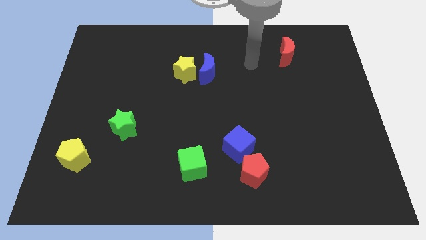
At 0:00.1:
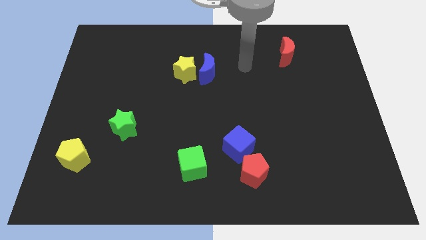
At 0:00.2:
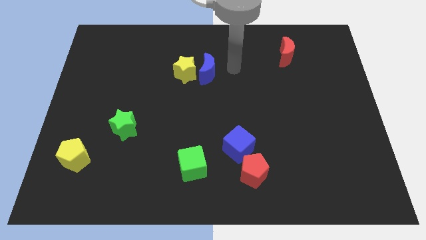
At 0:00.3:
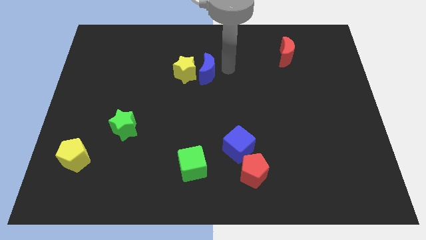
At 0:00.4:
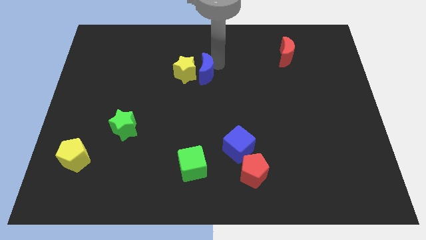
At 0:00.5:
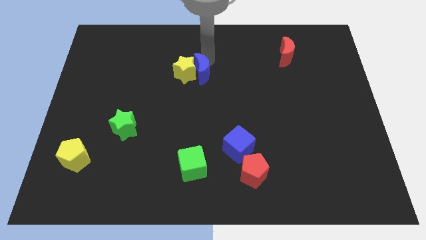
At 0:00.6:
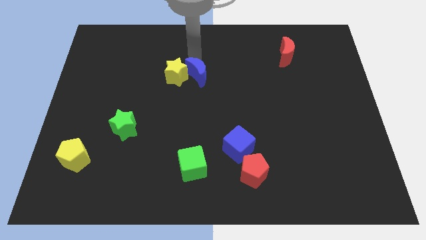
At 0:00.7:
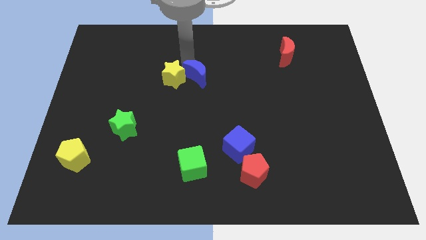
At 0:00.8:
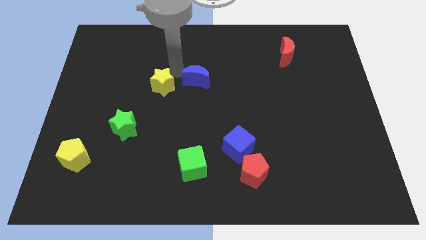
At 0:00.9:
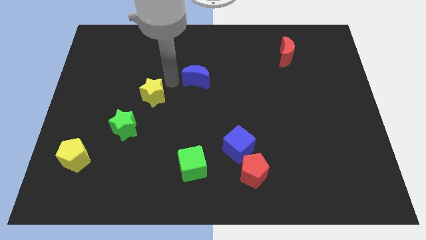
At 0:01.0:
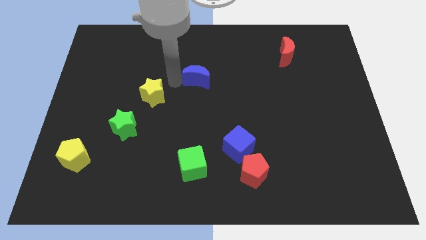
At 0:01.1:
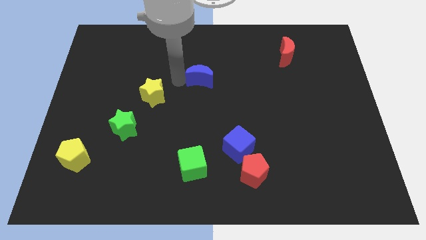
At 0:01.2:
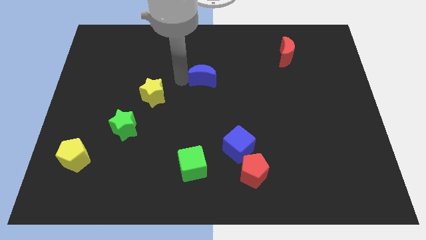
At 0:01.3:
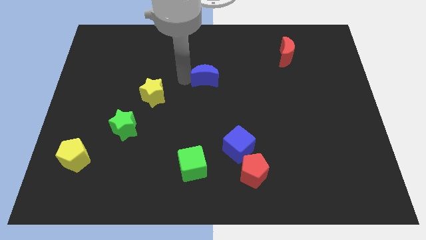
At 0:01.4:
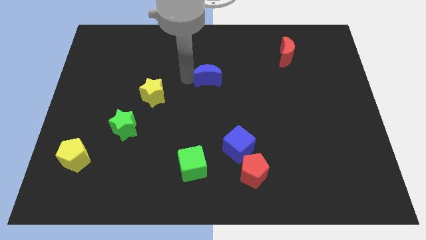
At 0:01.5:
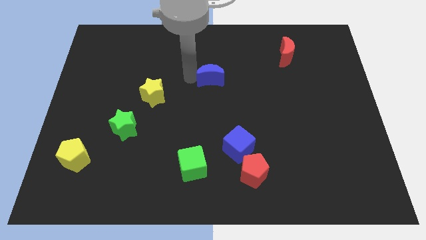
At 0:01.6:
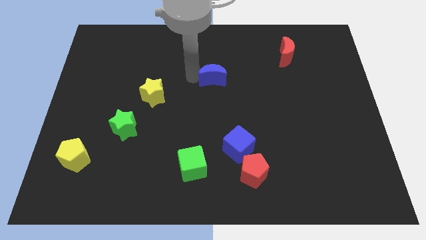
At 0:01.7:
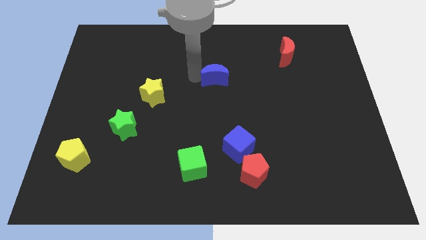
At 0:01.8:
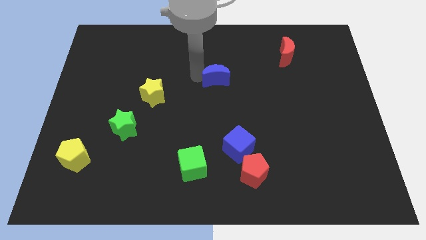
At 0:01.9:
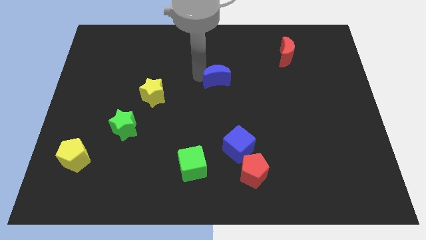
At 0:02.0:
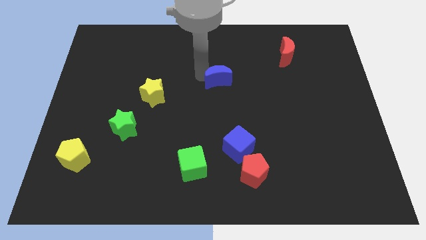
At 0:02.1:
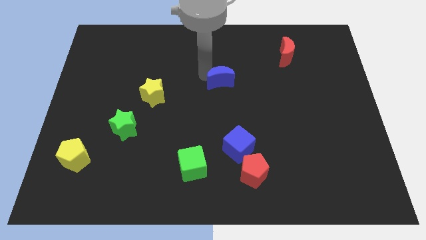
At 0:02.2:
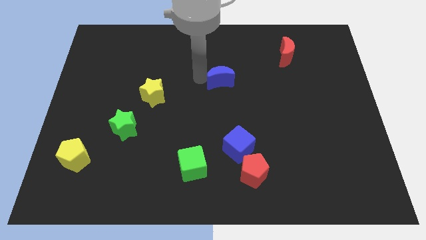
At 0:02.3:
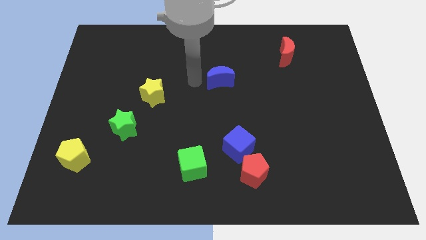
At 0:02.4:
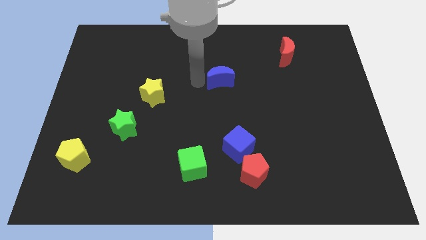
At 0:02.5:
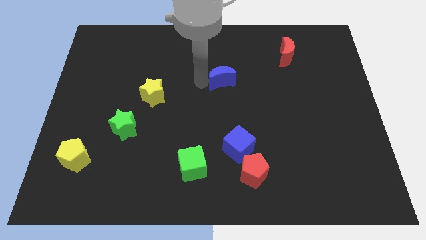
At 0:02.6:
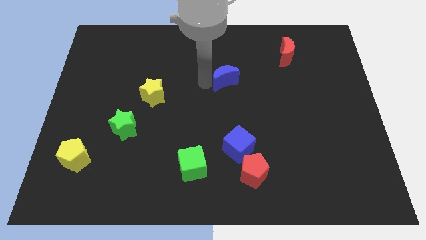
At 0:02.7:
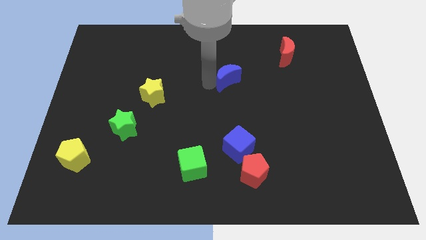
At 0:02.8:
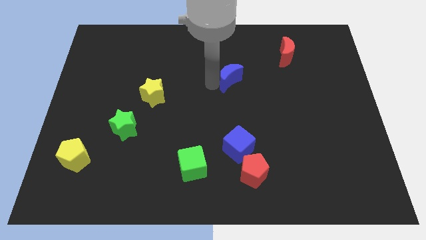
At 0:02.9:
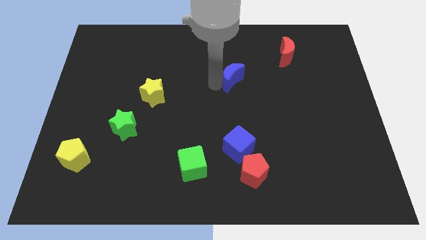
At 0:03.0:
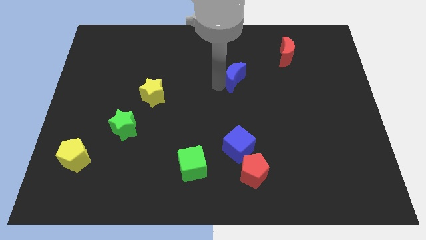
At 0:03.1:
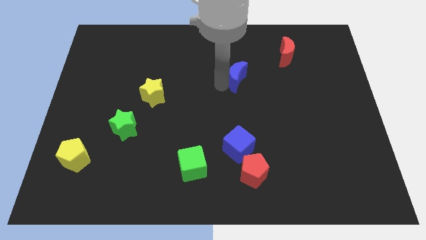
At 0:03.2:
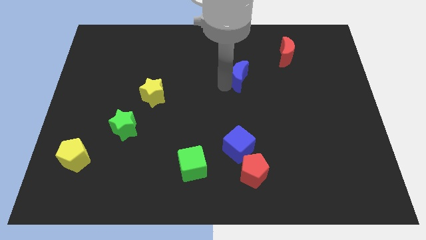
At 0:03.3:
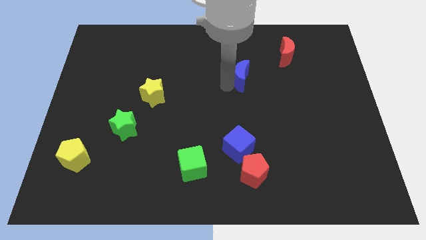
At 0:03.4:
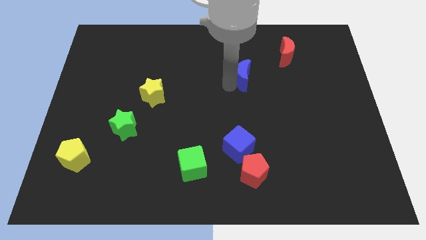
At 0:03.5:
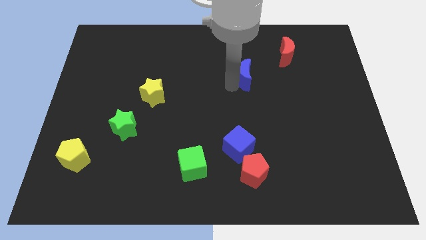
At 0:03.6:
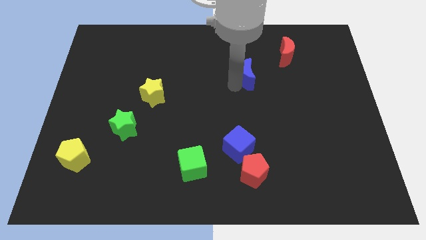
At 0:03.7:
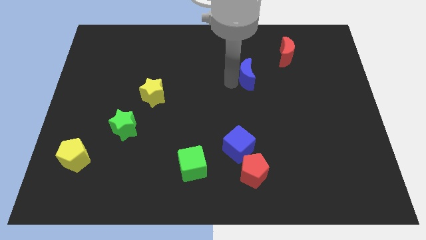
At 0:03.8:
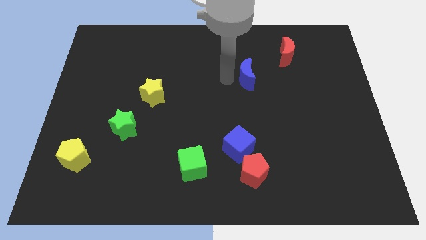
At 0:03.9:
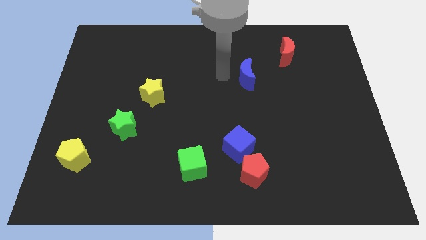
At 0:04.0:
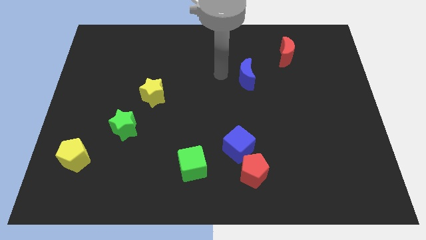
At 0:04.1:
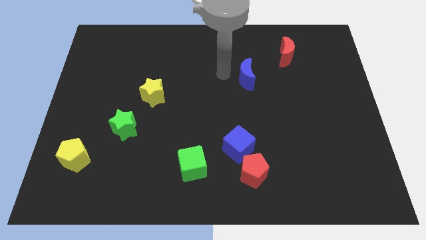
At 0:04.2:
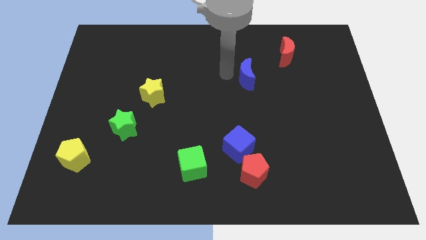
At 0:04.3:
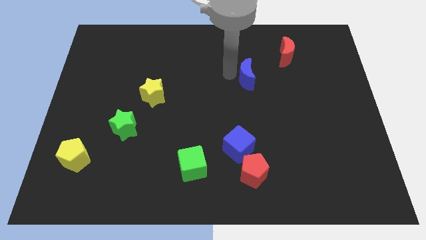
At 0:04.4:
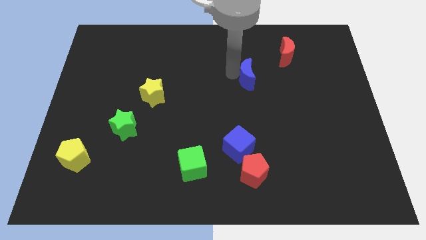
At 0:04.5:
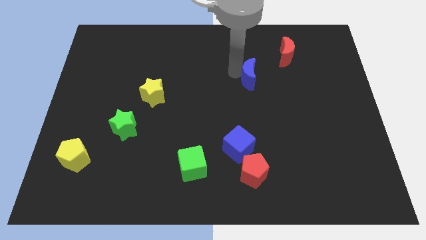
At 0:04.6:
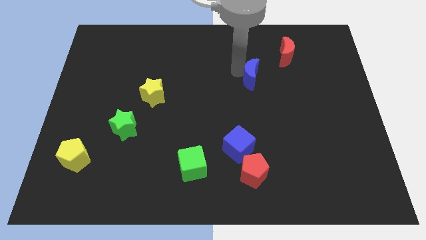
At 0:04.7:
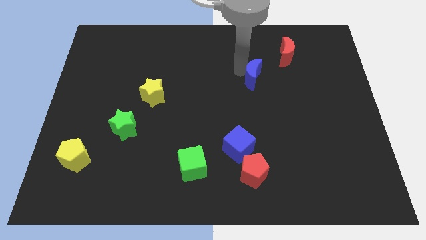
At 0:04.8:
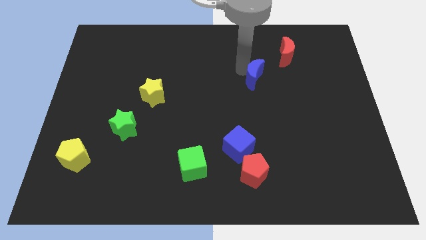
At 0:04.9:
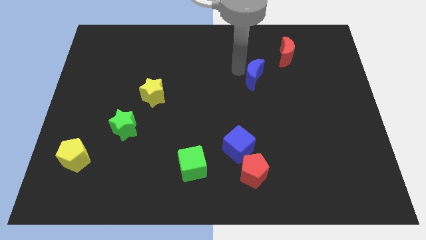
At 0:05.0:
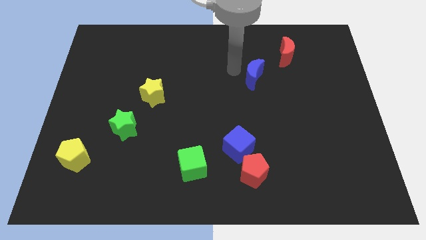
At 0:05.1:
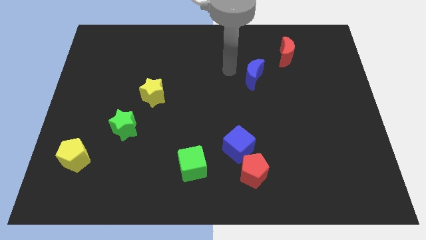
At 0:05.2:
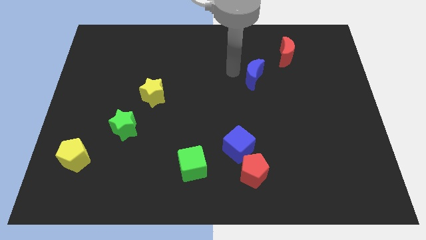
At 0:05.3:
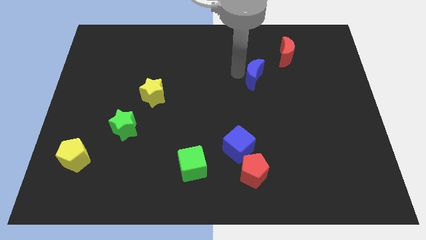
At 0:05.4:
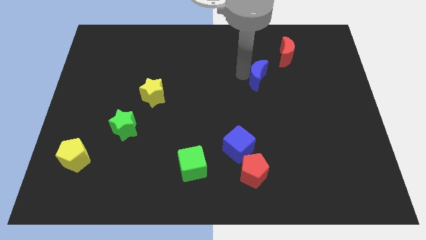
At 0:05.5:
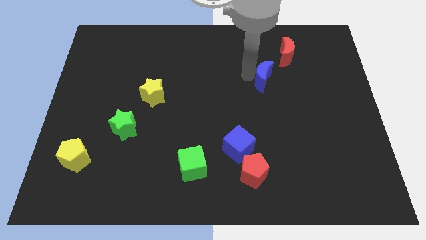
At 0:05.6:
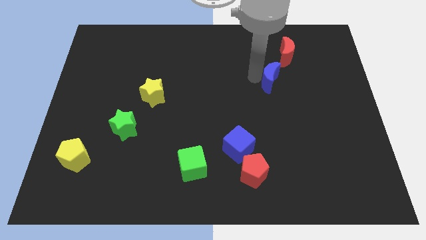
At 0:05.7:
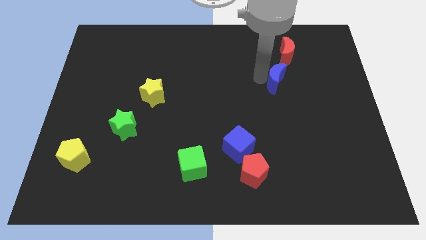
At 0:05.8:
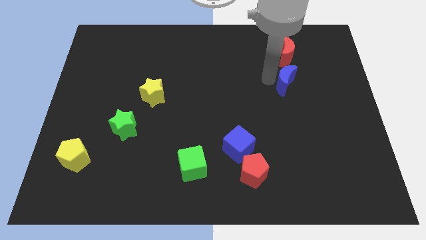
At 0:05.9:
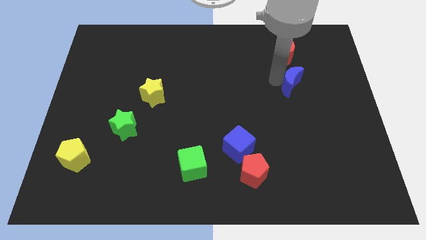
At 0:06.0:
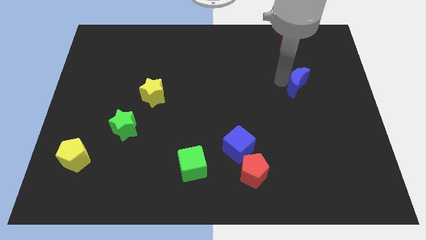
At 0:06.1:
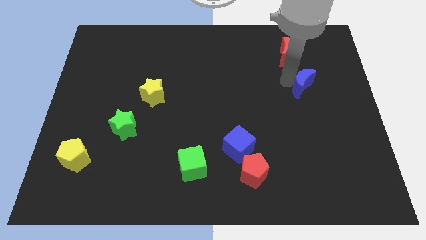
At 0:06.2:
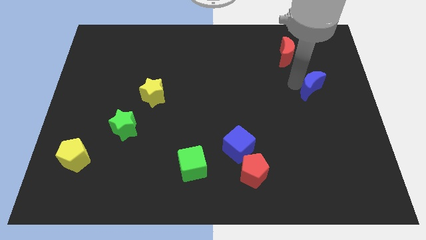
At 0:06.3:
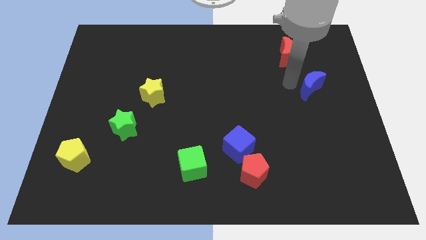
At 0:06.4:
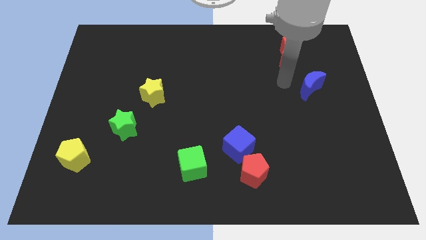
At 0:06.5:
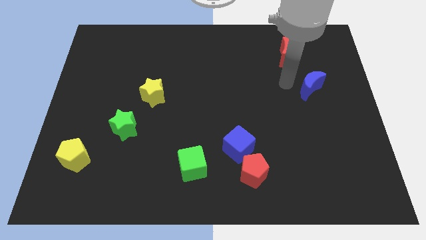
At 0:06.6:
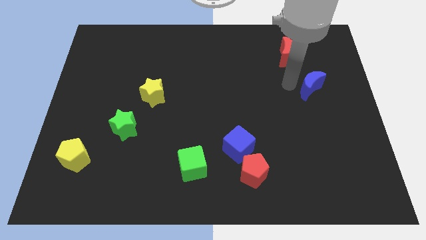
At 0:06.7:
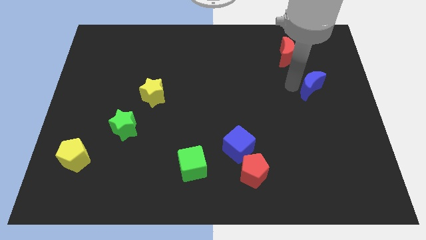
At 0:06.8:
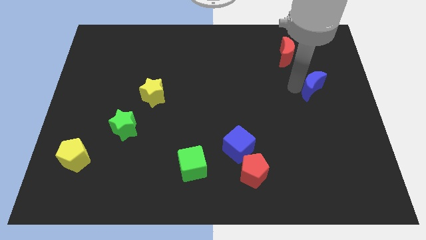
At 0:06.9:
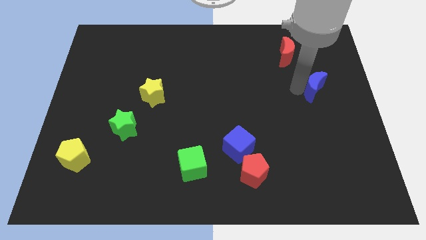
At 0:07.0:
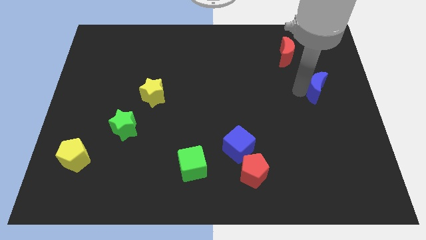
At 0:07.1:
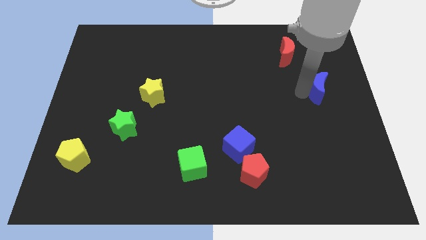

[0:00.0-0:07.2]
slide the blue moon to the right side of the board
